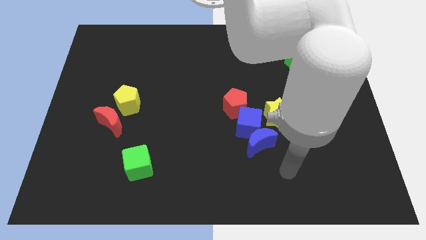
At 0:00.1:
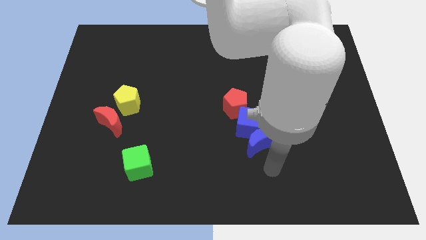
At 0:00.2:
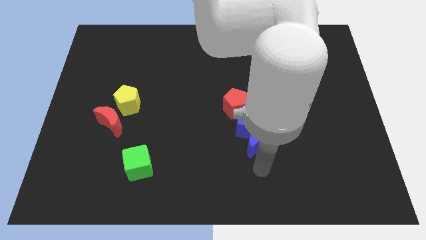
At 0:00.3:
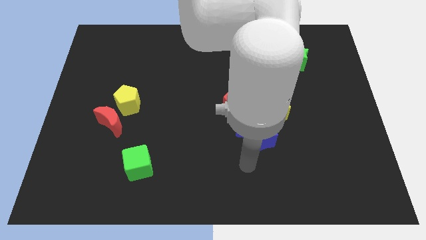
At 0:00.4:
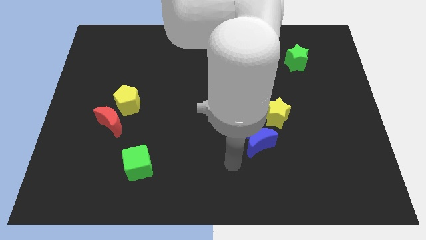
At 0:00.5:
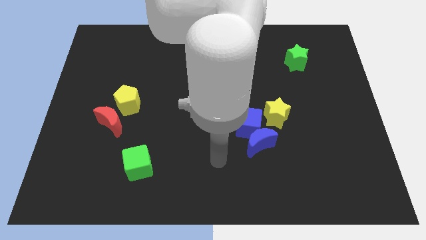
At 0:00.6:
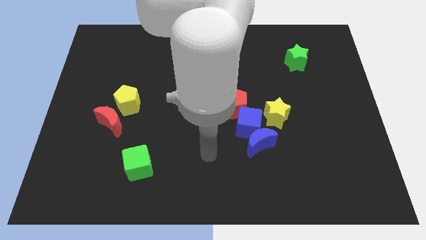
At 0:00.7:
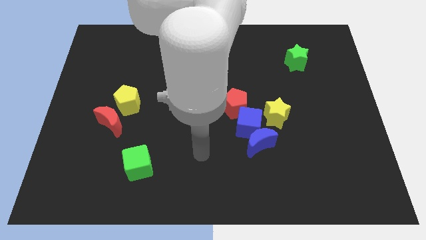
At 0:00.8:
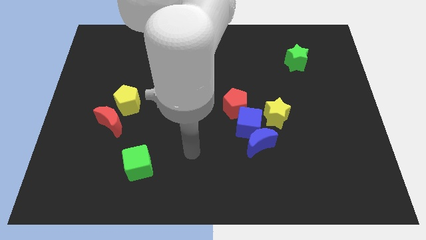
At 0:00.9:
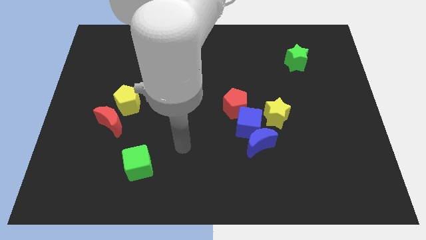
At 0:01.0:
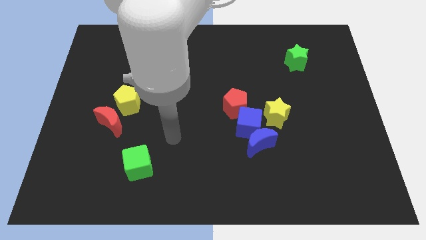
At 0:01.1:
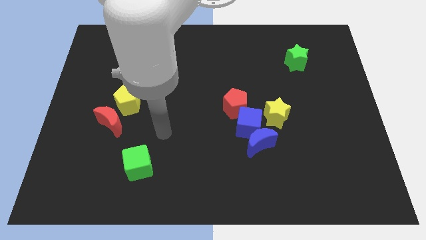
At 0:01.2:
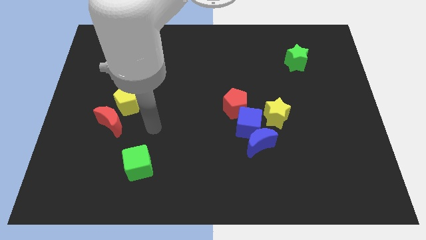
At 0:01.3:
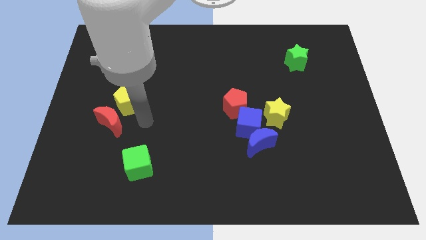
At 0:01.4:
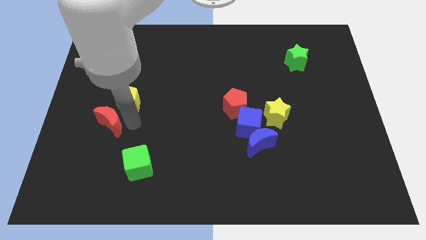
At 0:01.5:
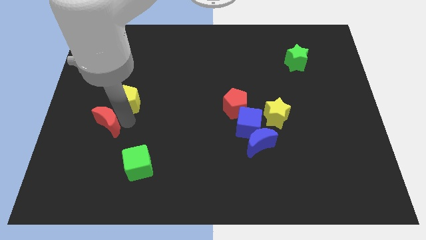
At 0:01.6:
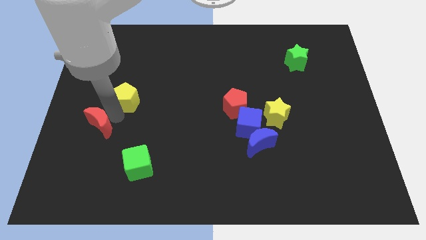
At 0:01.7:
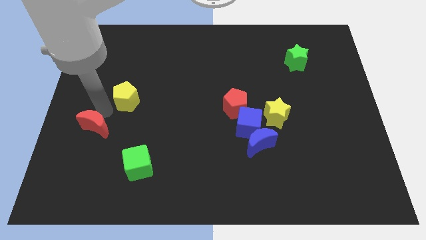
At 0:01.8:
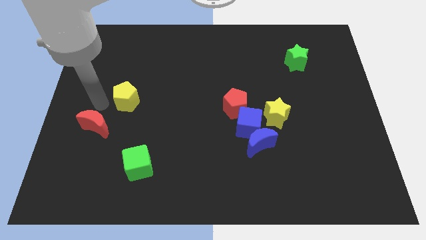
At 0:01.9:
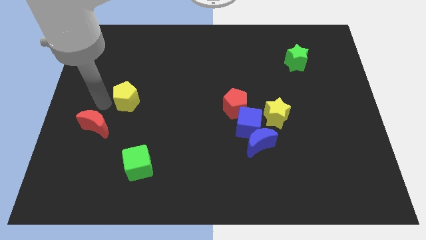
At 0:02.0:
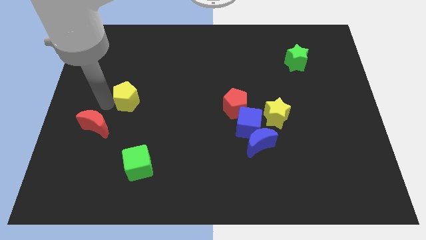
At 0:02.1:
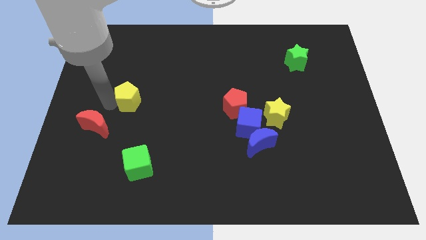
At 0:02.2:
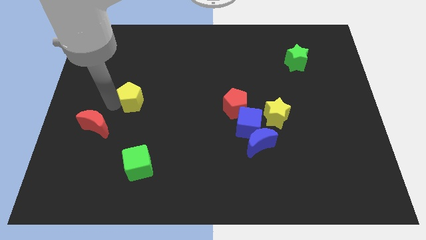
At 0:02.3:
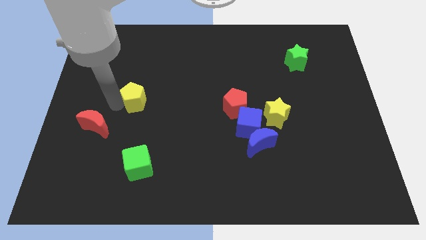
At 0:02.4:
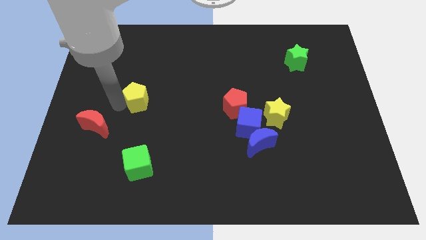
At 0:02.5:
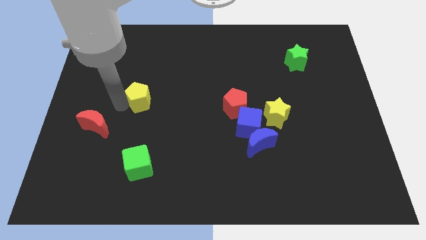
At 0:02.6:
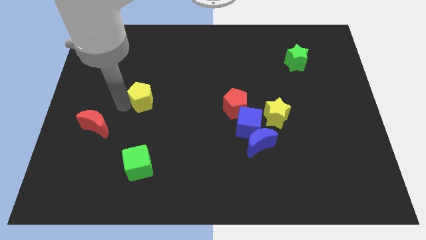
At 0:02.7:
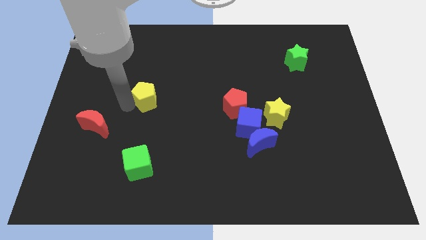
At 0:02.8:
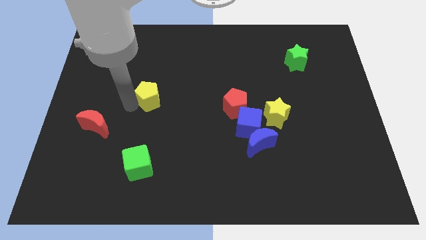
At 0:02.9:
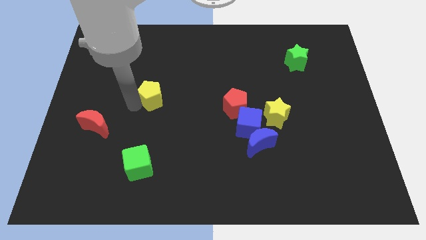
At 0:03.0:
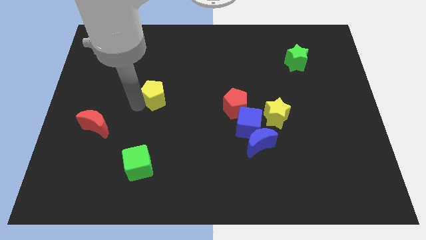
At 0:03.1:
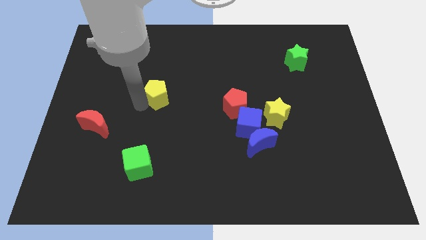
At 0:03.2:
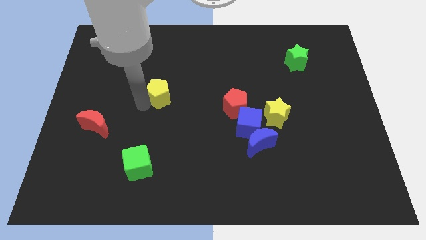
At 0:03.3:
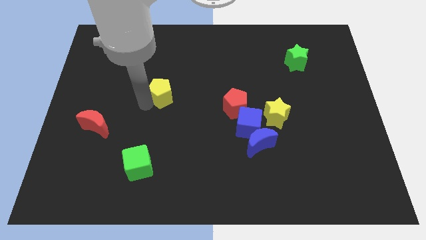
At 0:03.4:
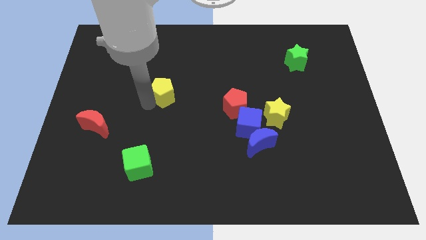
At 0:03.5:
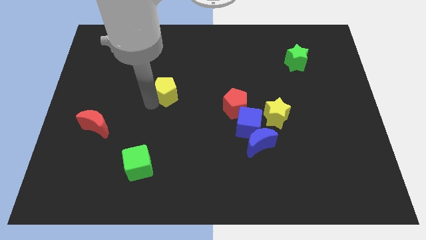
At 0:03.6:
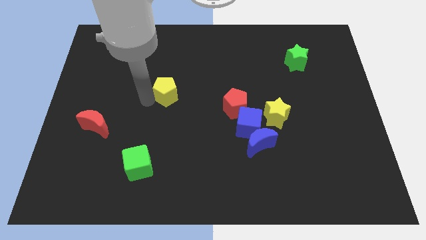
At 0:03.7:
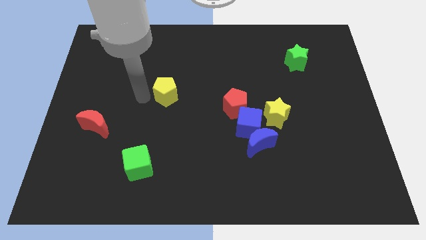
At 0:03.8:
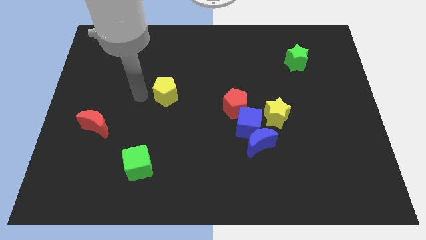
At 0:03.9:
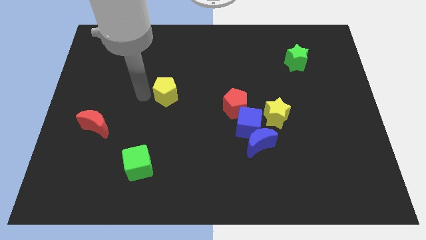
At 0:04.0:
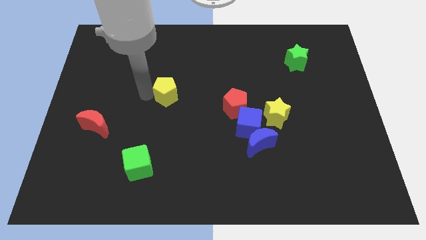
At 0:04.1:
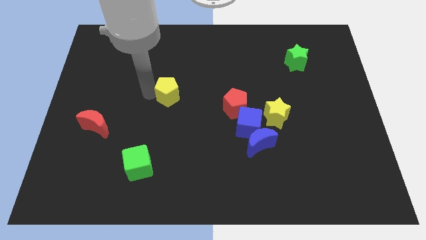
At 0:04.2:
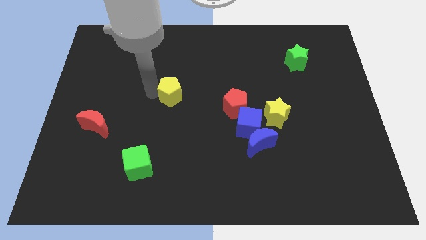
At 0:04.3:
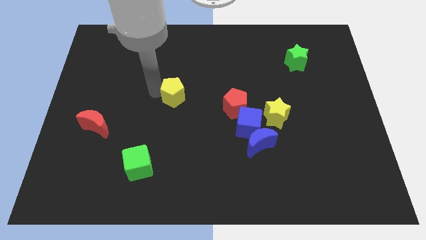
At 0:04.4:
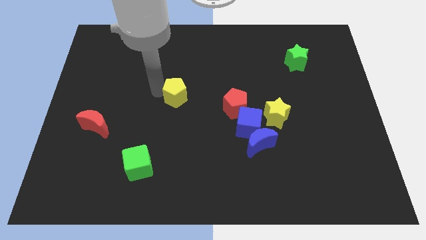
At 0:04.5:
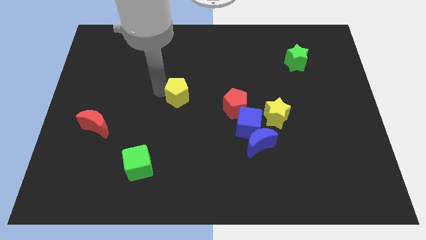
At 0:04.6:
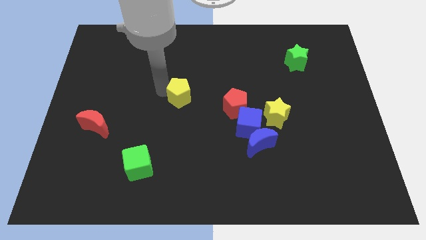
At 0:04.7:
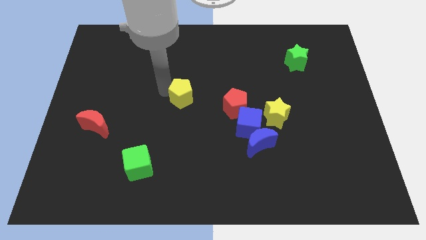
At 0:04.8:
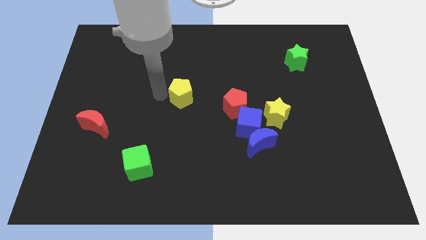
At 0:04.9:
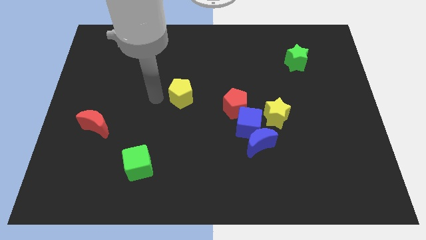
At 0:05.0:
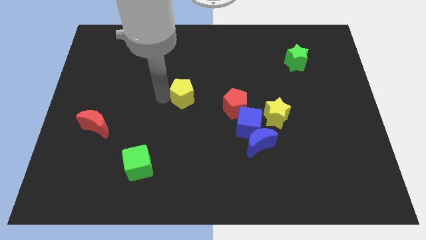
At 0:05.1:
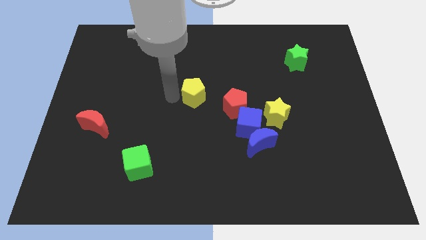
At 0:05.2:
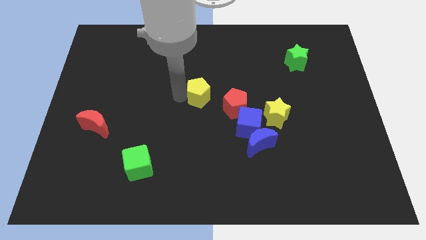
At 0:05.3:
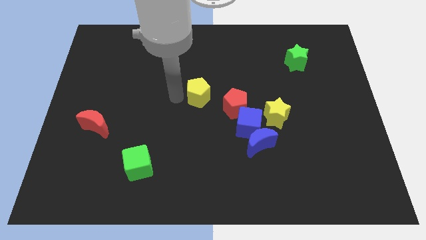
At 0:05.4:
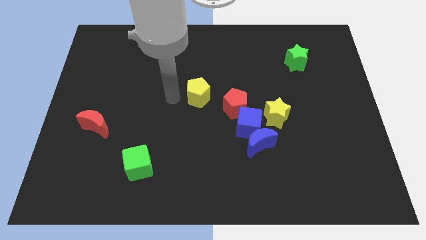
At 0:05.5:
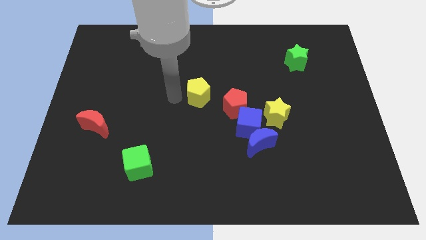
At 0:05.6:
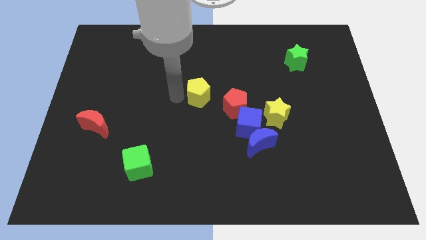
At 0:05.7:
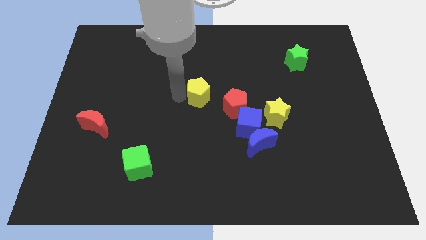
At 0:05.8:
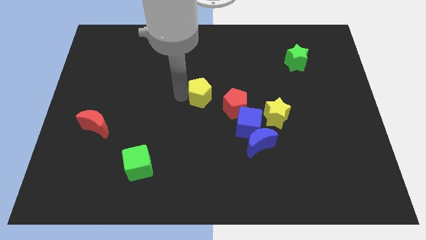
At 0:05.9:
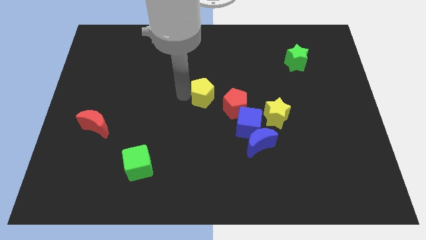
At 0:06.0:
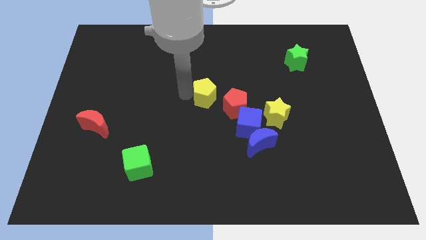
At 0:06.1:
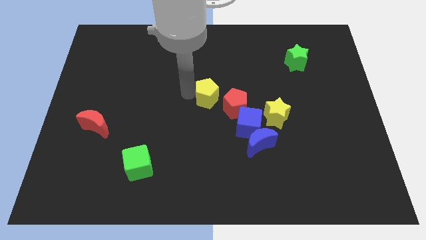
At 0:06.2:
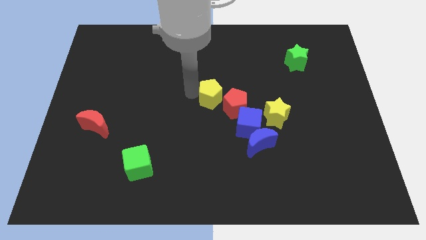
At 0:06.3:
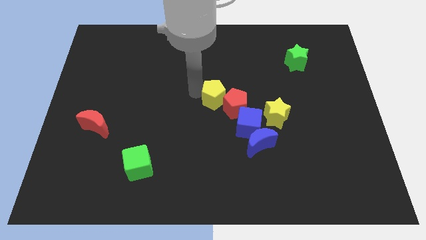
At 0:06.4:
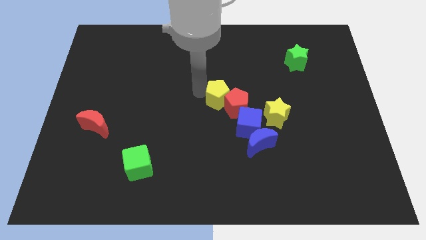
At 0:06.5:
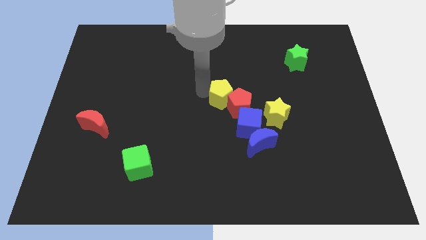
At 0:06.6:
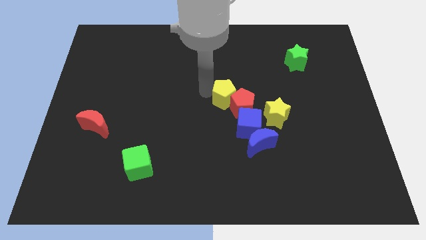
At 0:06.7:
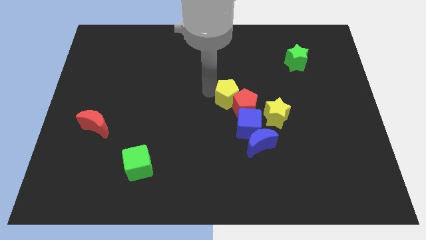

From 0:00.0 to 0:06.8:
put the yellow pentagon above the blue cube
